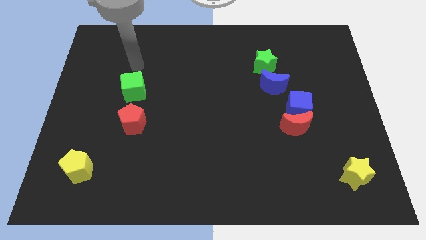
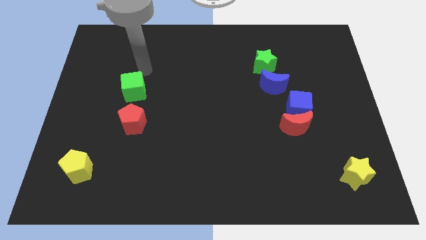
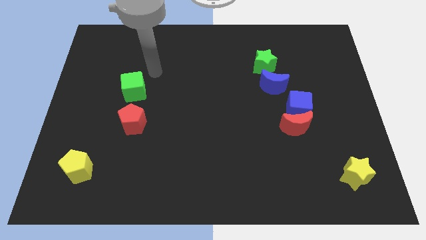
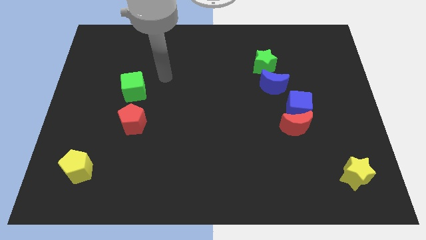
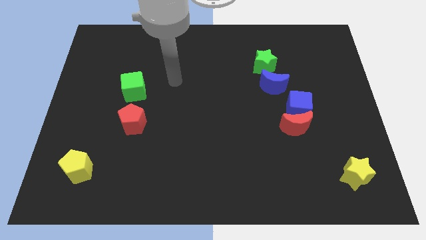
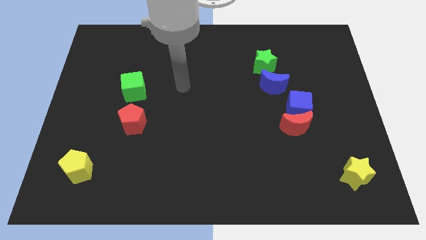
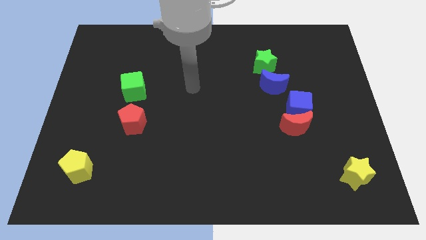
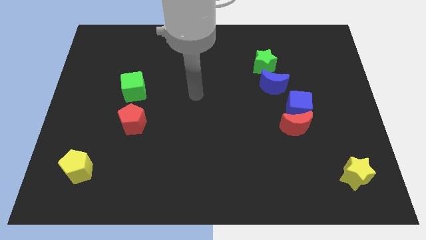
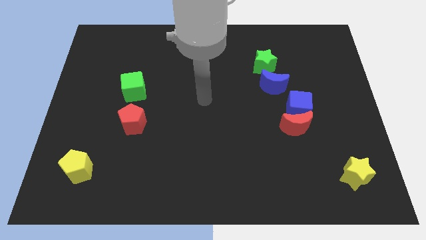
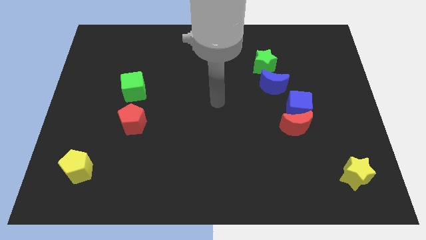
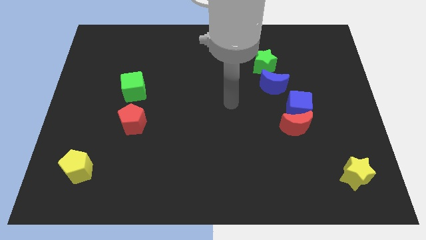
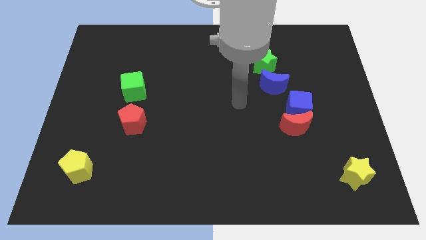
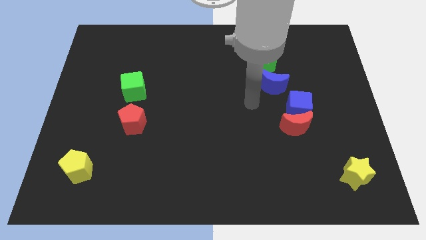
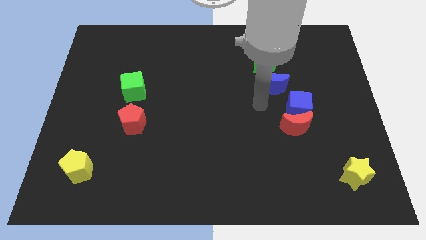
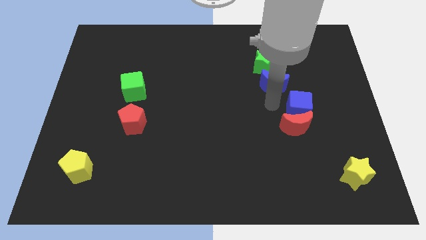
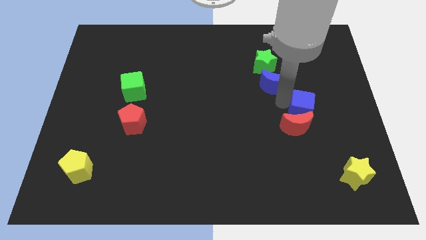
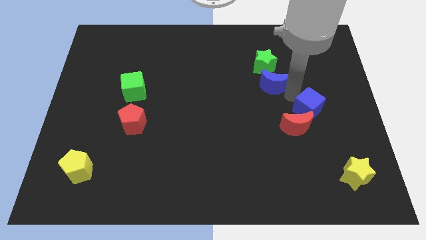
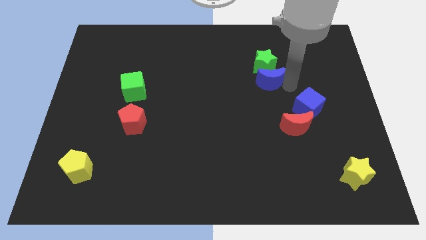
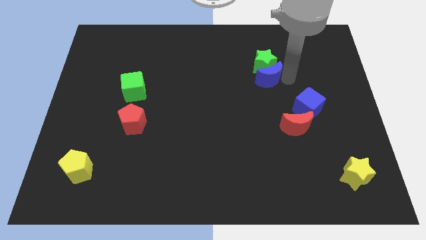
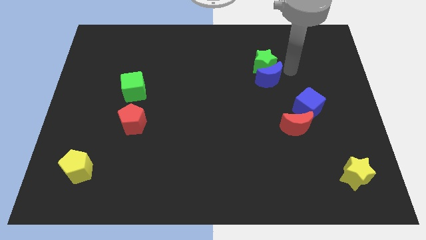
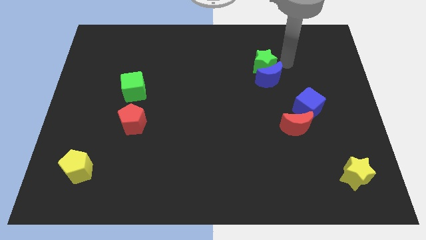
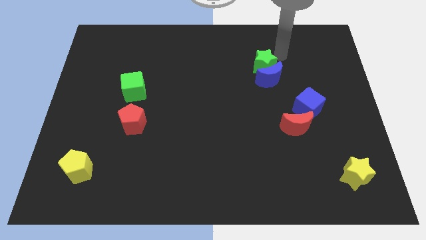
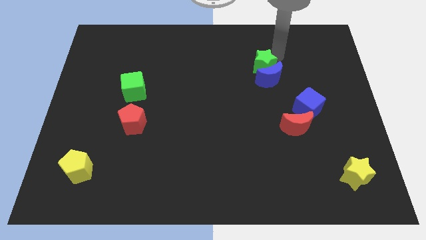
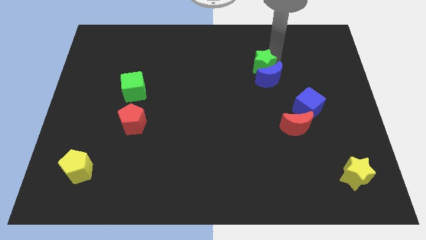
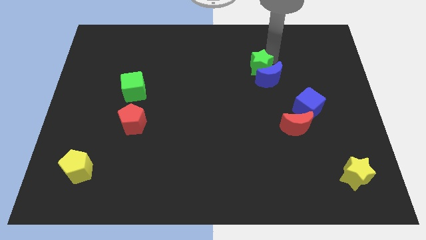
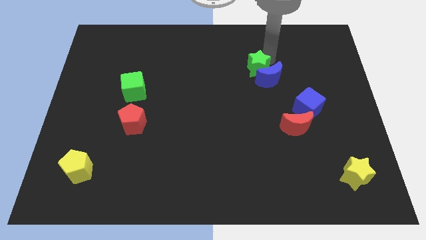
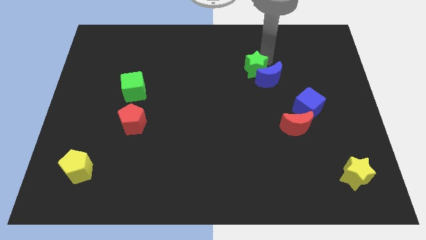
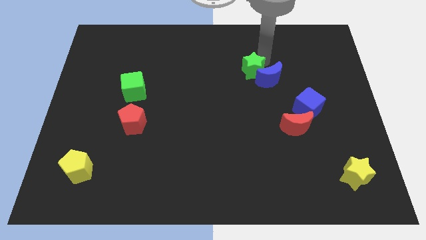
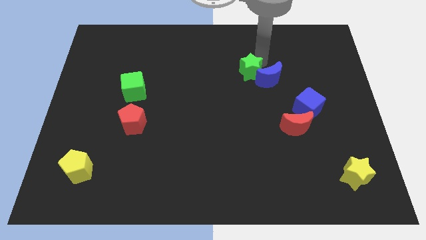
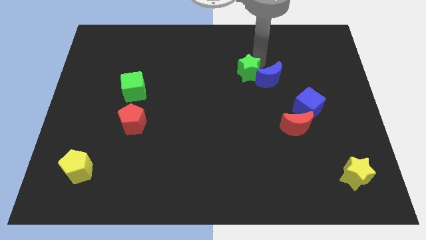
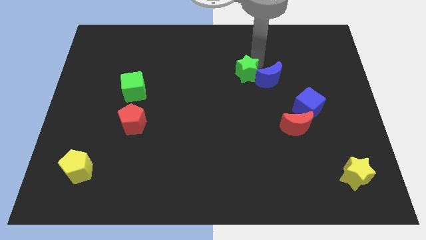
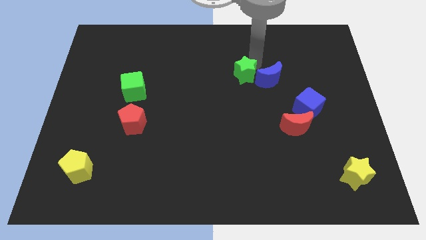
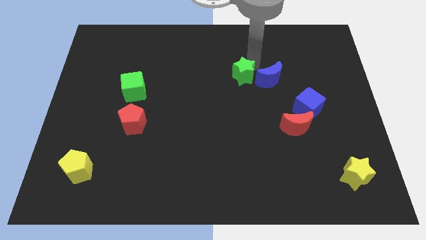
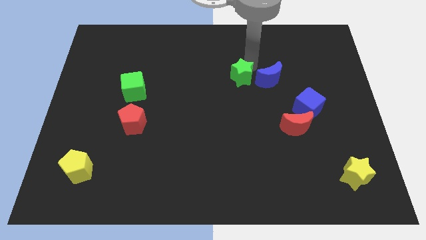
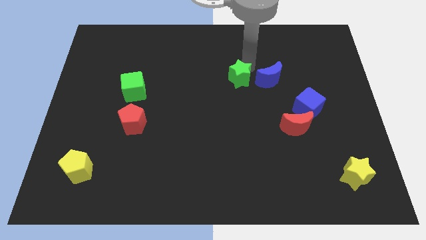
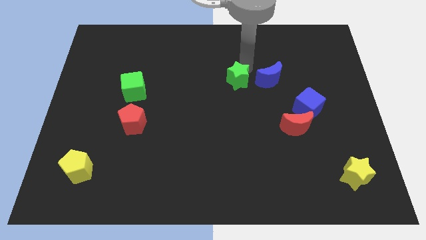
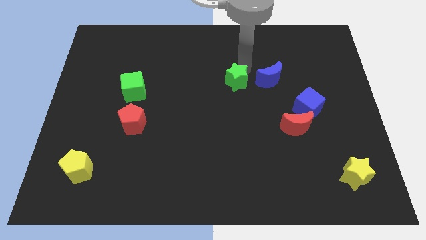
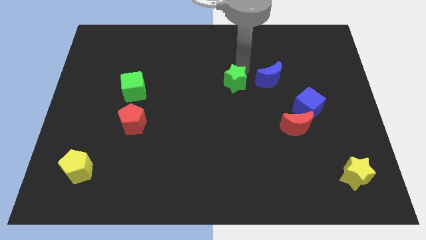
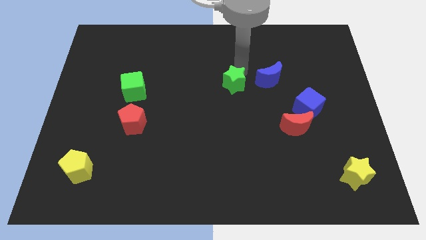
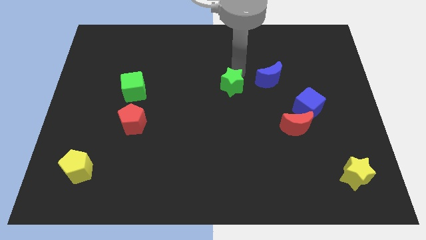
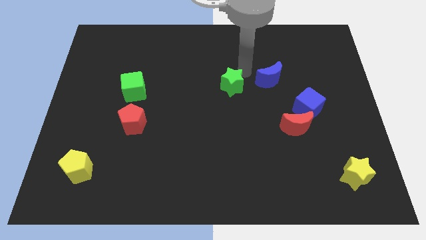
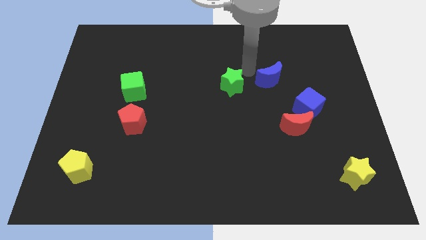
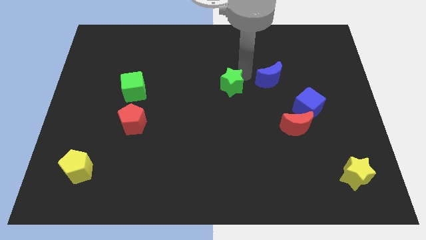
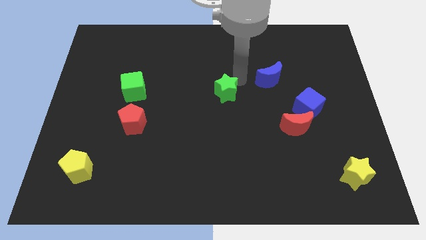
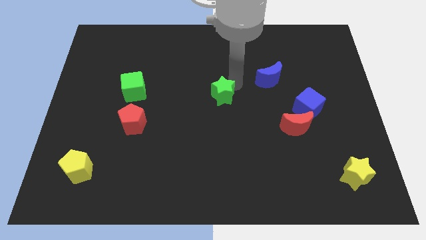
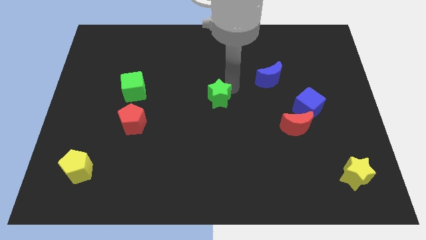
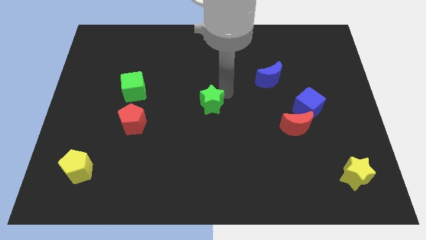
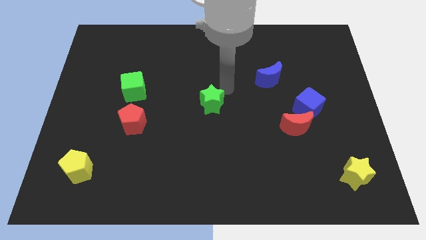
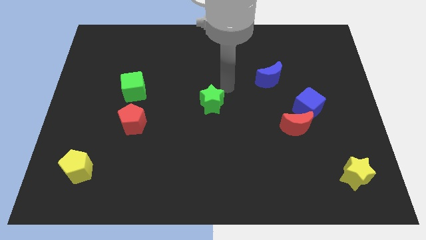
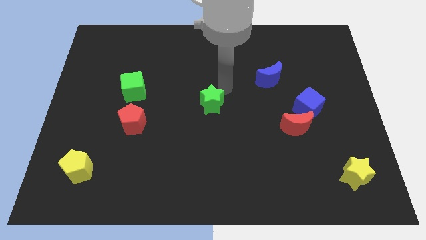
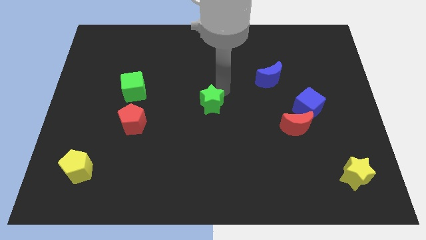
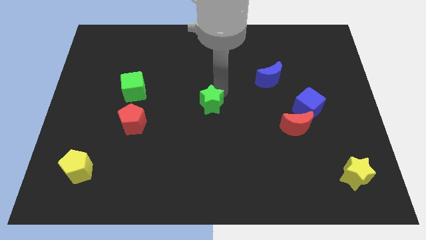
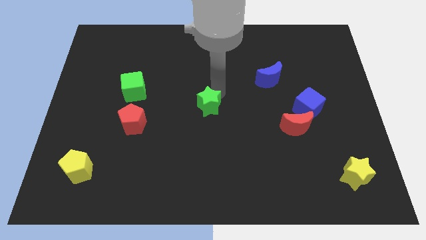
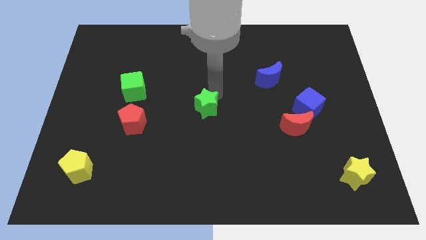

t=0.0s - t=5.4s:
slide the green star downwards and then left

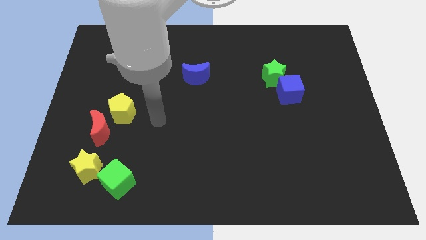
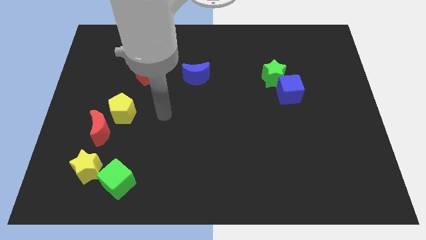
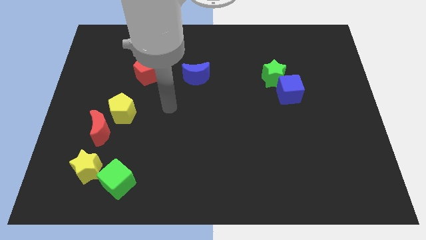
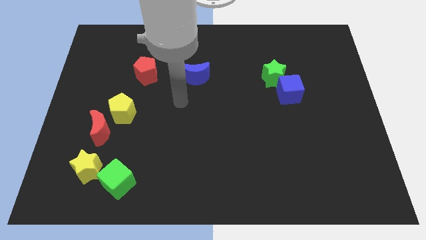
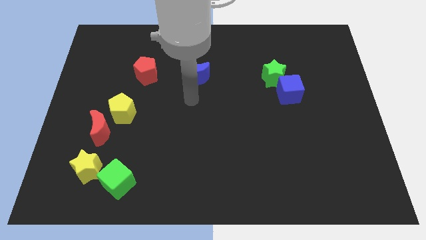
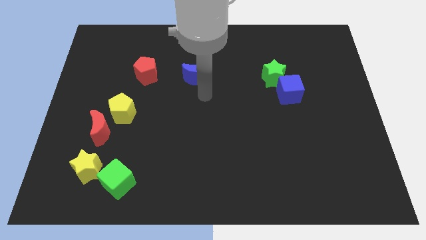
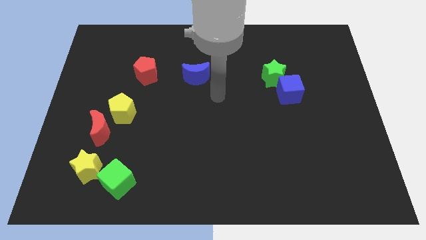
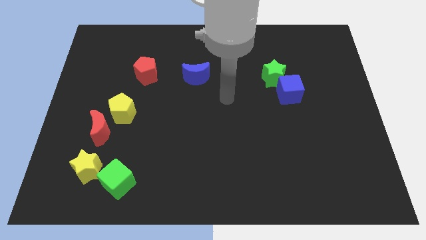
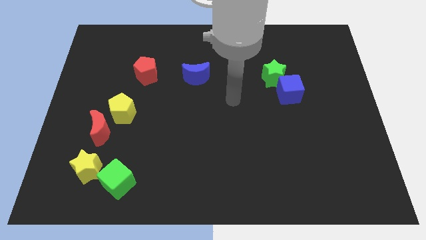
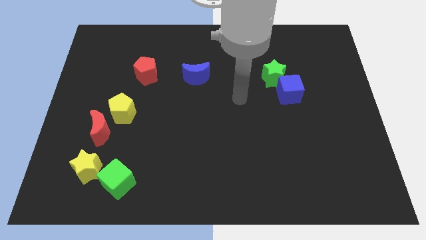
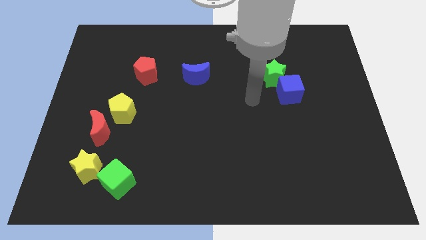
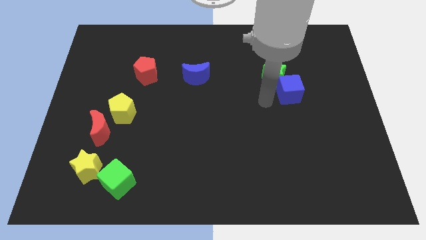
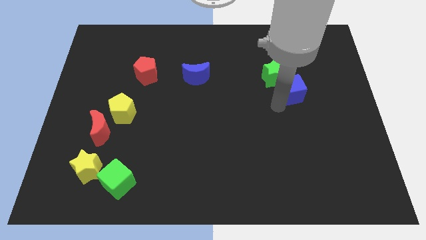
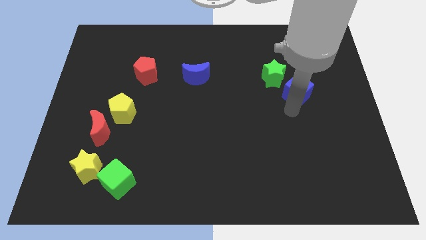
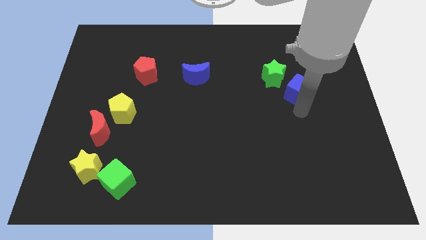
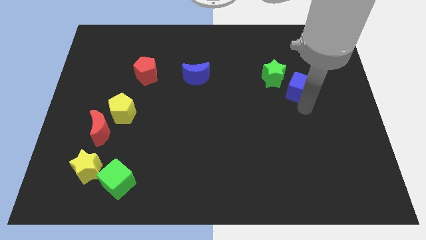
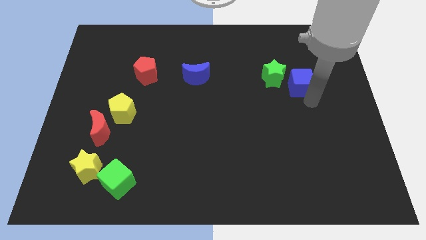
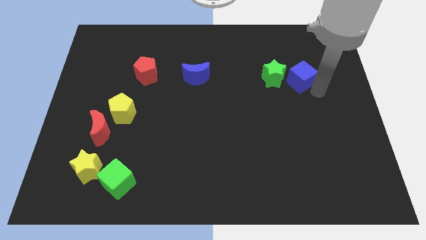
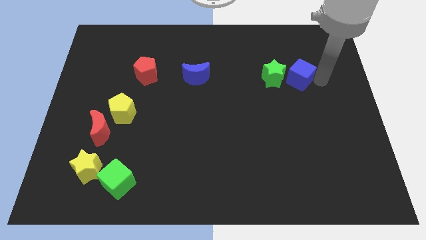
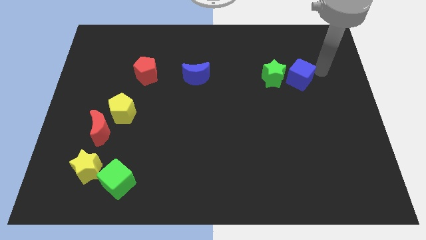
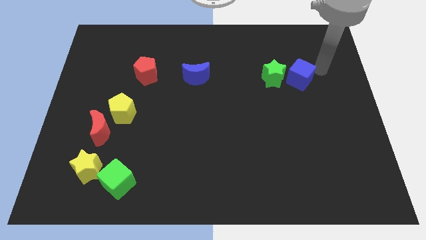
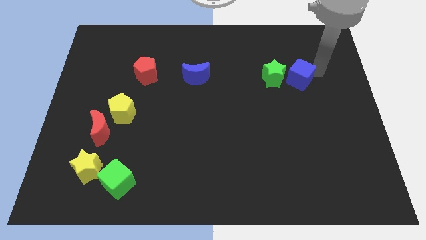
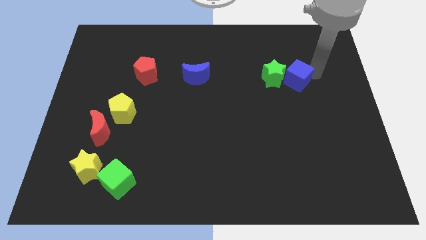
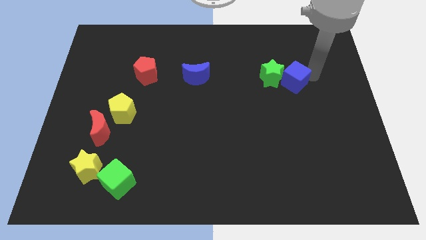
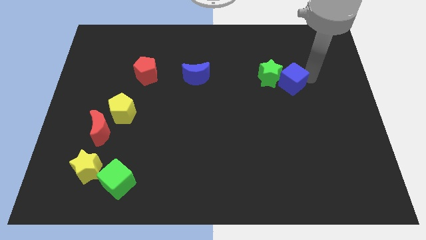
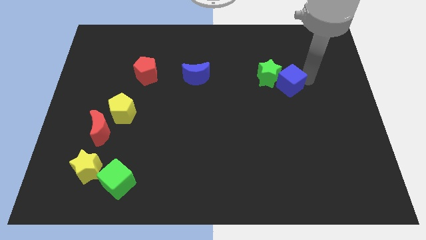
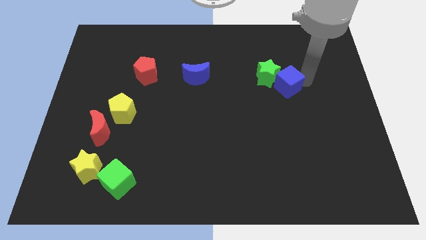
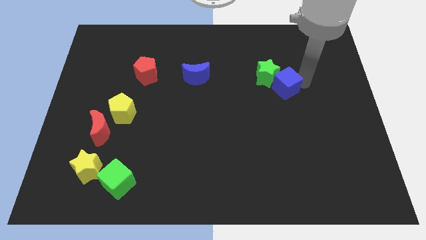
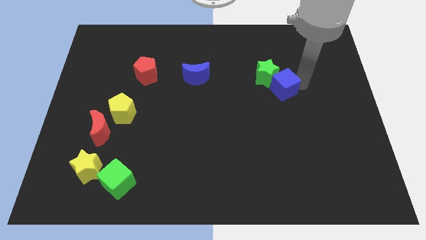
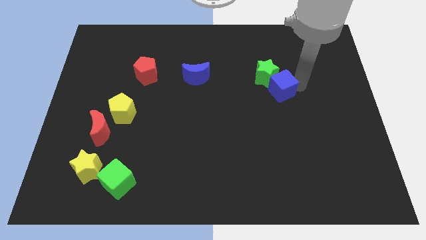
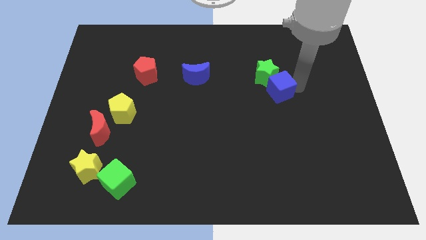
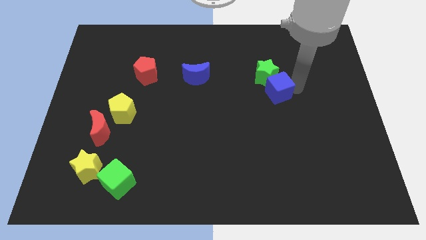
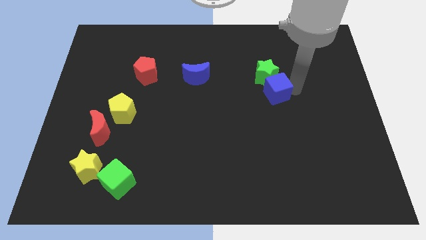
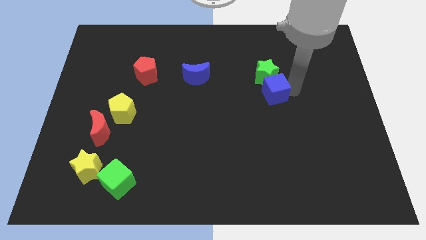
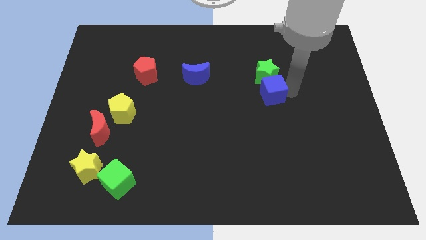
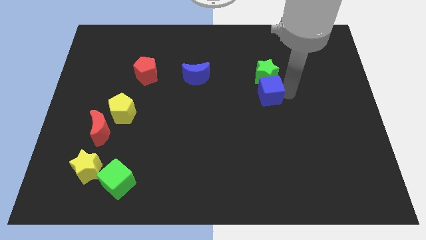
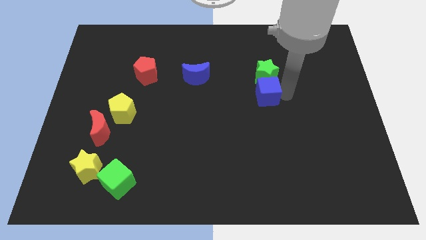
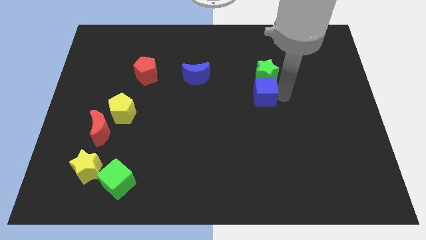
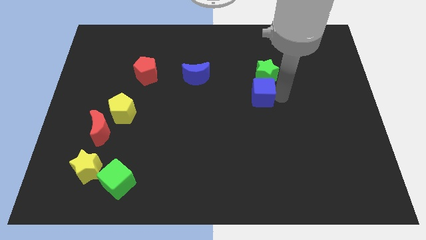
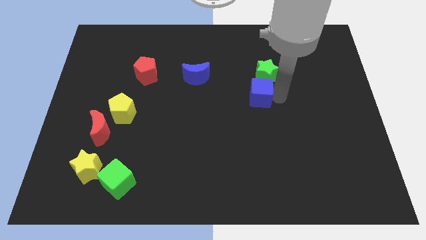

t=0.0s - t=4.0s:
slightly slide the blue cube left
